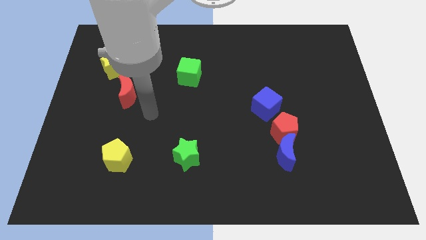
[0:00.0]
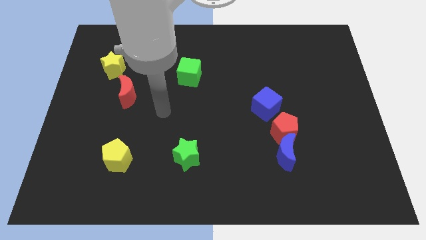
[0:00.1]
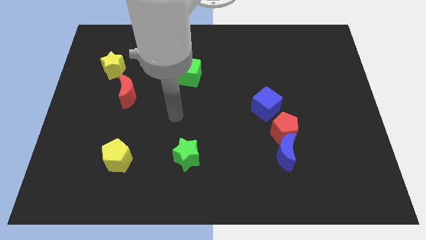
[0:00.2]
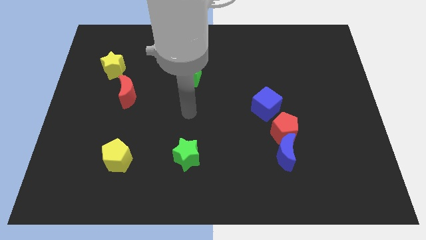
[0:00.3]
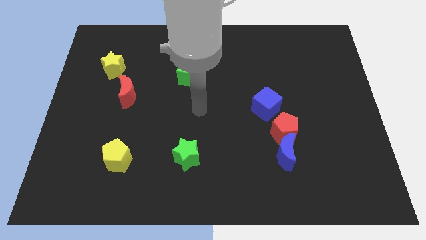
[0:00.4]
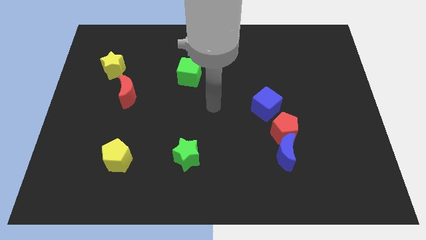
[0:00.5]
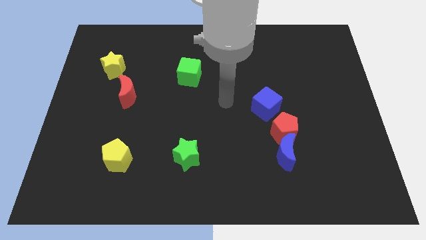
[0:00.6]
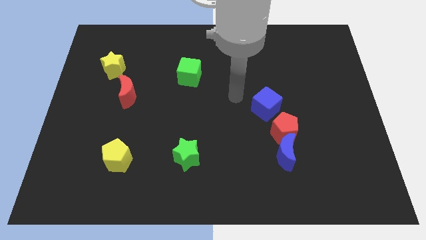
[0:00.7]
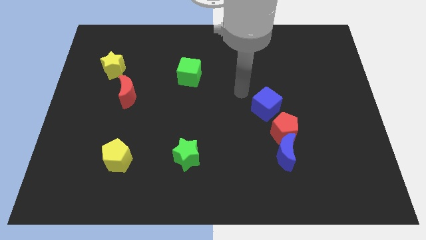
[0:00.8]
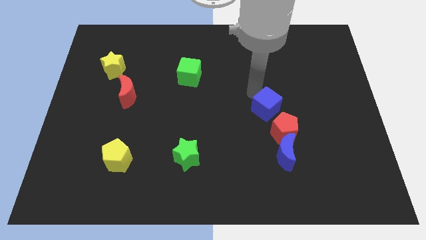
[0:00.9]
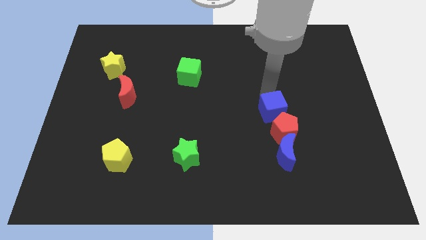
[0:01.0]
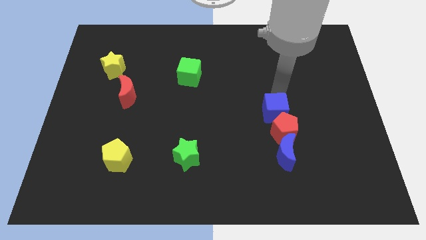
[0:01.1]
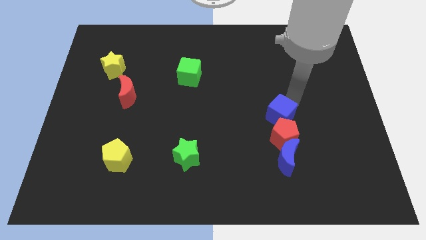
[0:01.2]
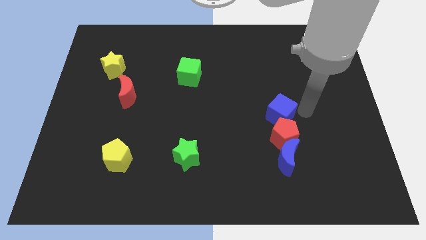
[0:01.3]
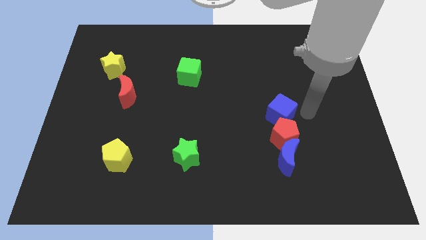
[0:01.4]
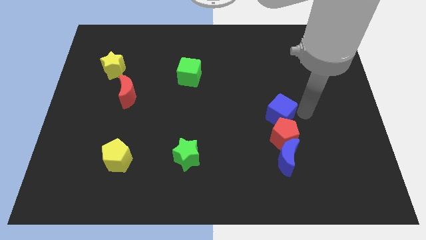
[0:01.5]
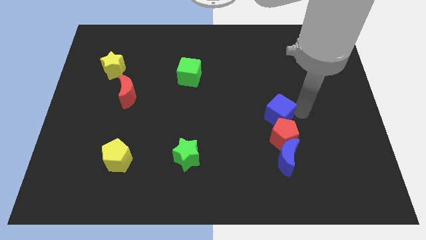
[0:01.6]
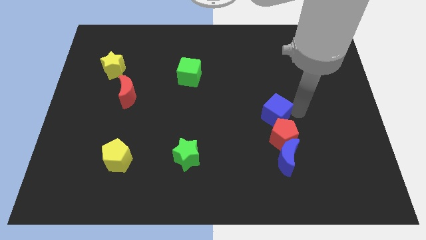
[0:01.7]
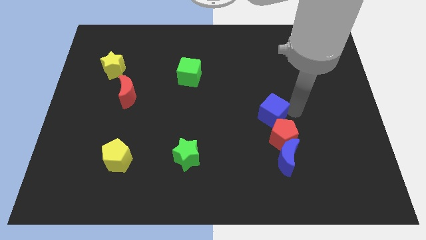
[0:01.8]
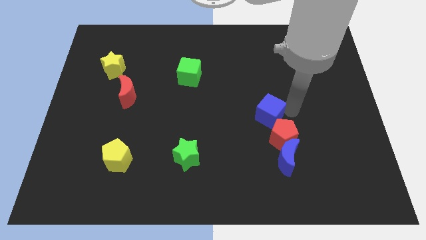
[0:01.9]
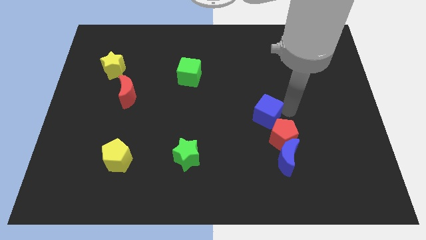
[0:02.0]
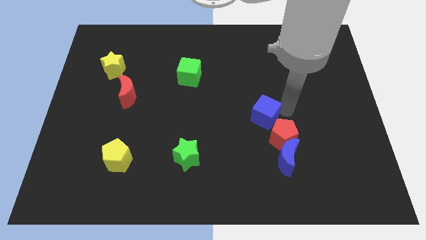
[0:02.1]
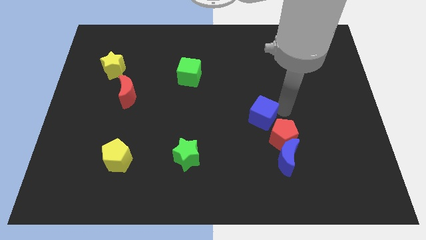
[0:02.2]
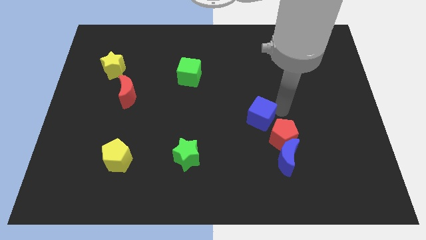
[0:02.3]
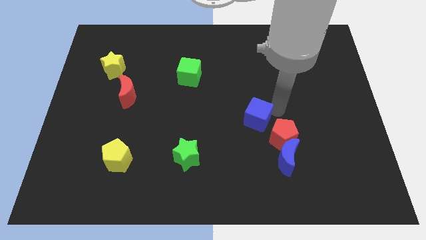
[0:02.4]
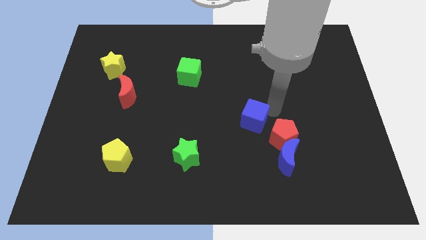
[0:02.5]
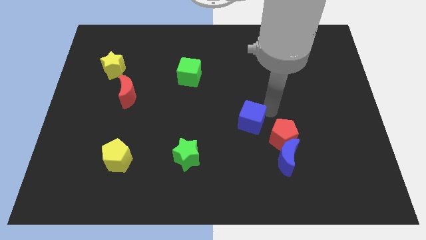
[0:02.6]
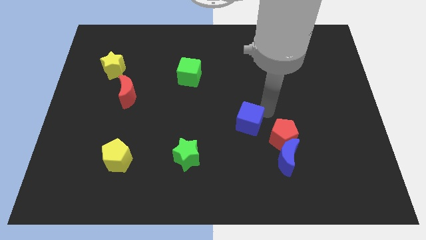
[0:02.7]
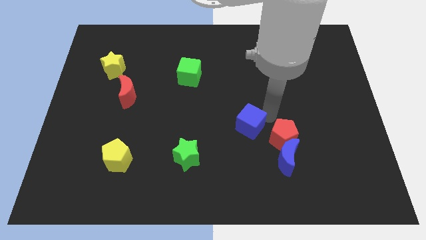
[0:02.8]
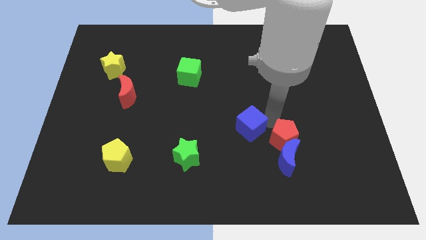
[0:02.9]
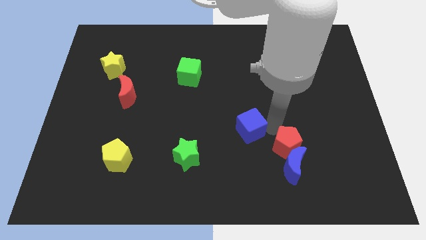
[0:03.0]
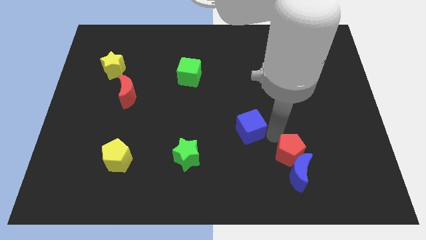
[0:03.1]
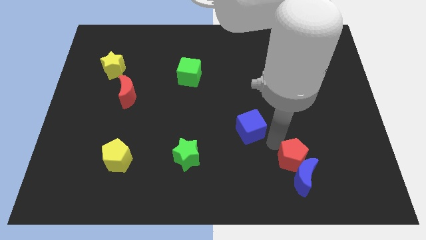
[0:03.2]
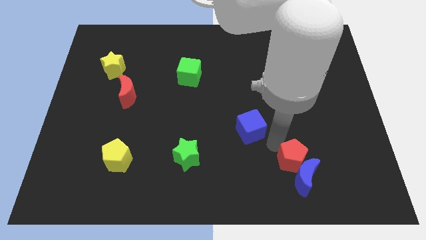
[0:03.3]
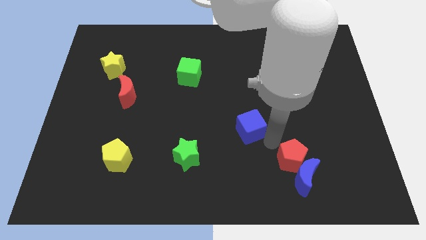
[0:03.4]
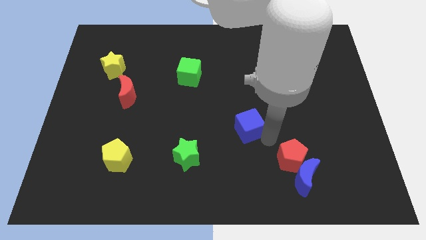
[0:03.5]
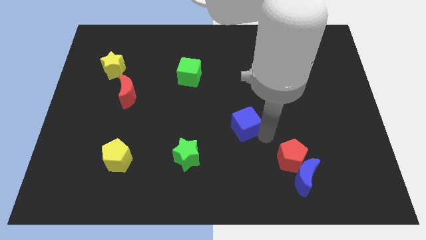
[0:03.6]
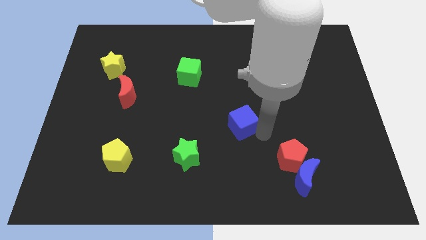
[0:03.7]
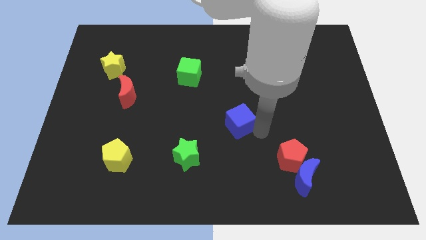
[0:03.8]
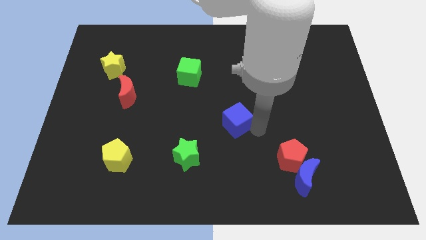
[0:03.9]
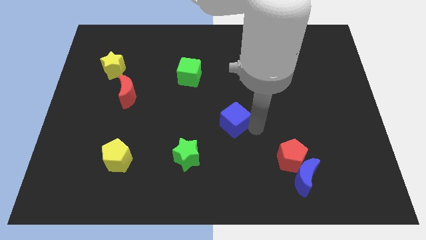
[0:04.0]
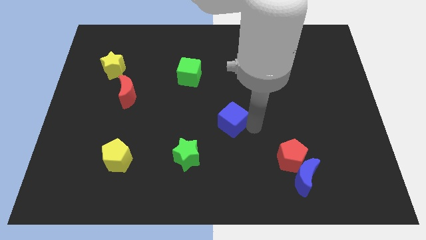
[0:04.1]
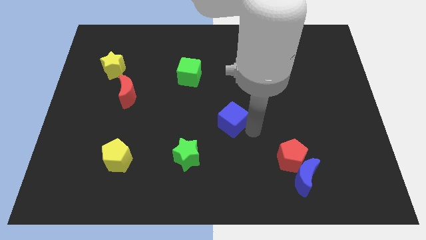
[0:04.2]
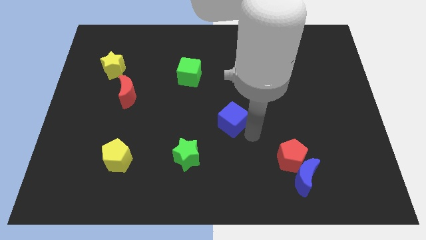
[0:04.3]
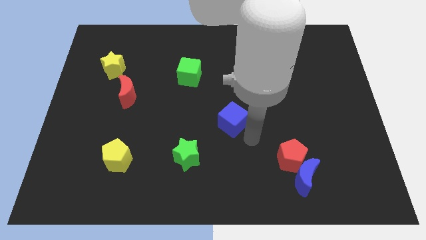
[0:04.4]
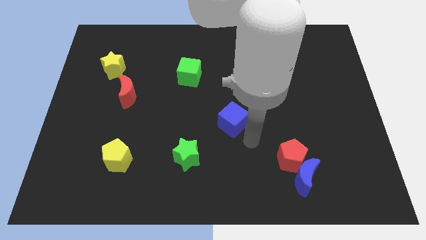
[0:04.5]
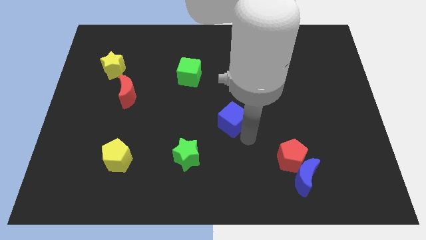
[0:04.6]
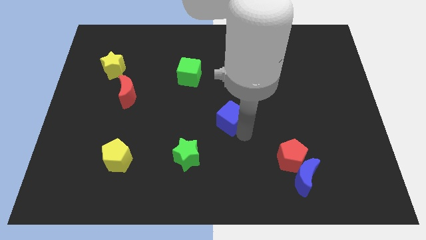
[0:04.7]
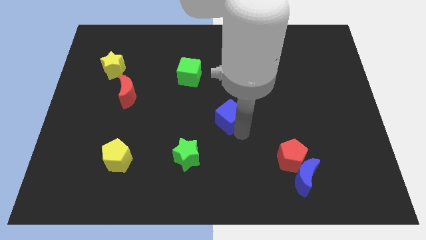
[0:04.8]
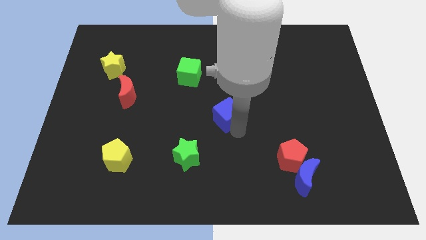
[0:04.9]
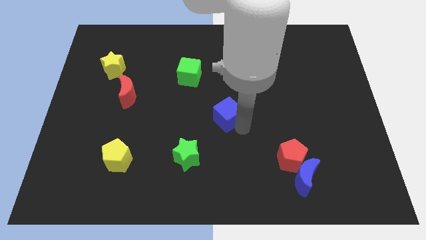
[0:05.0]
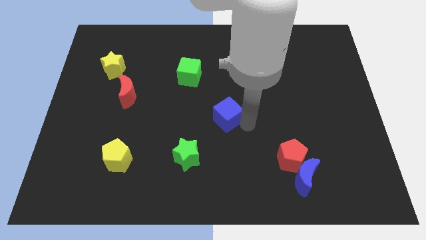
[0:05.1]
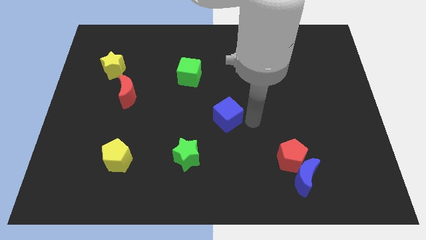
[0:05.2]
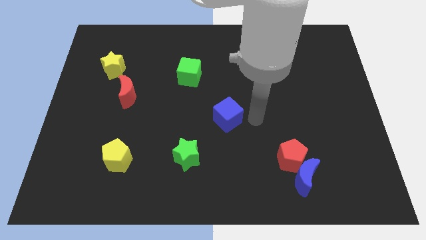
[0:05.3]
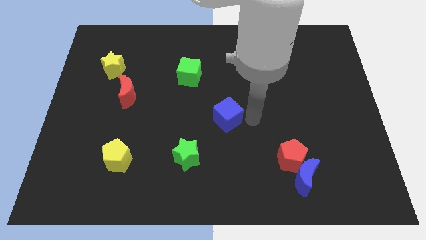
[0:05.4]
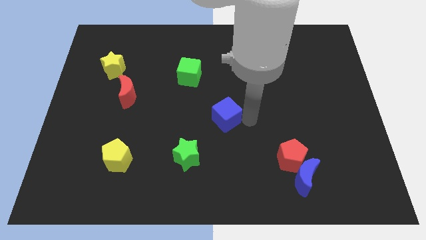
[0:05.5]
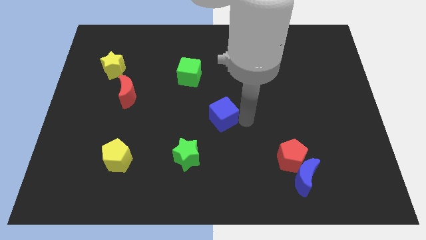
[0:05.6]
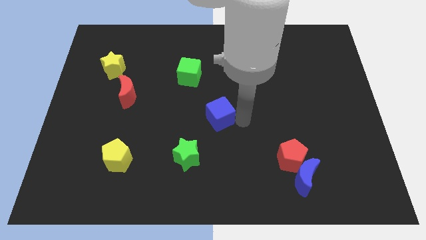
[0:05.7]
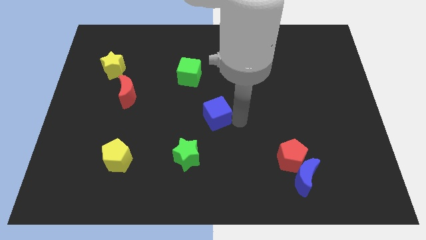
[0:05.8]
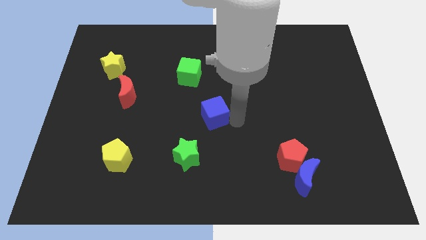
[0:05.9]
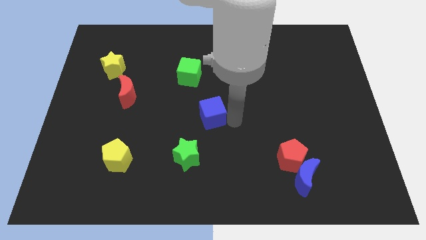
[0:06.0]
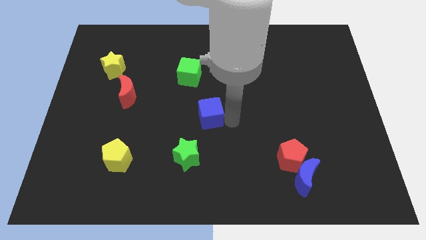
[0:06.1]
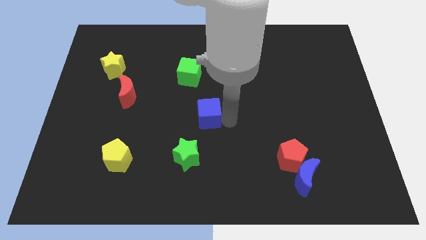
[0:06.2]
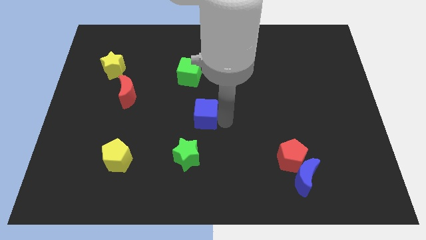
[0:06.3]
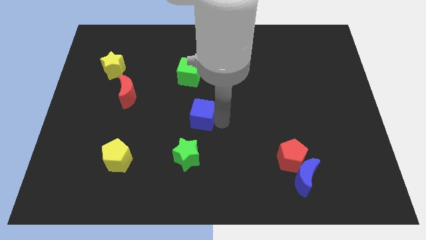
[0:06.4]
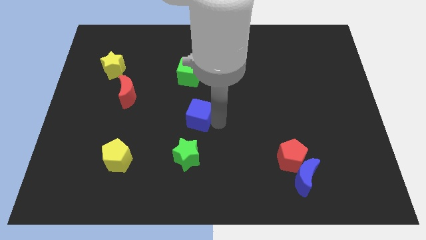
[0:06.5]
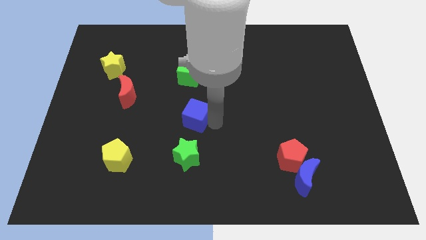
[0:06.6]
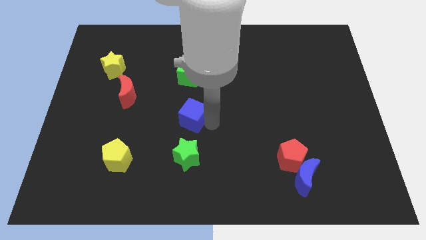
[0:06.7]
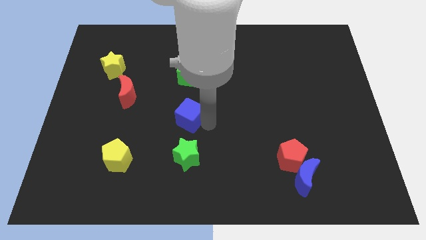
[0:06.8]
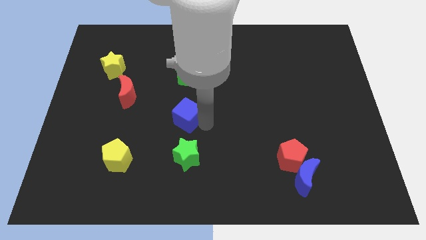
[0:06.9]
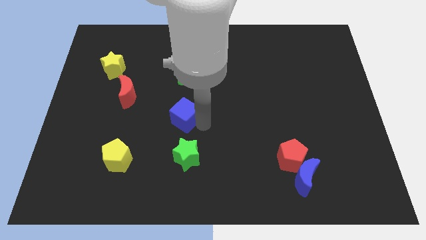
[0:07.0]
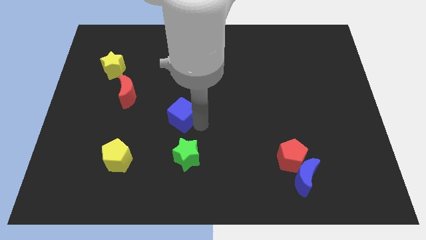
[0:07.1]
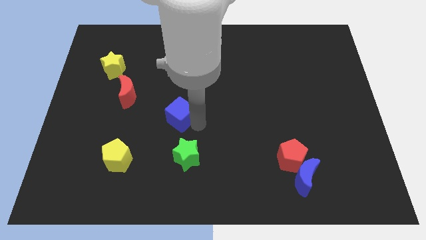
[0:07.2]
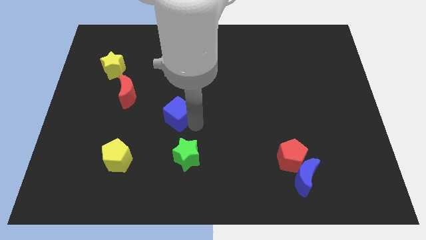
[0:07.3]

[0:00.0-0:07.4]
push the blue cube left

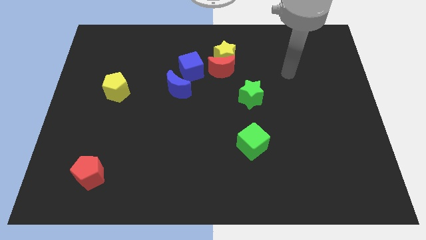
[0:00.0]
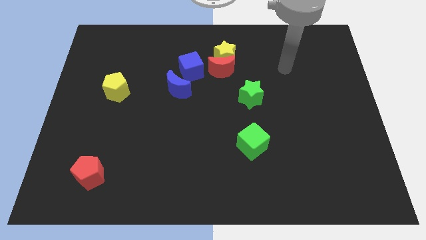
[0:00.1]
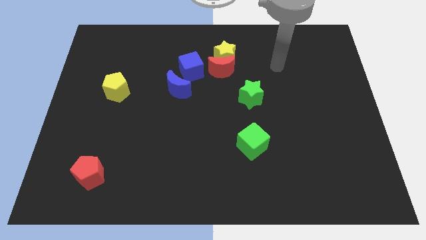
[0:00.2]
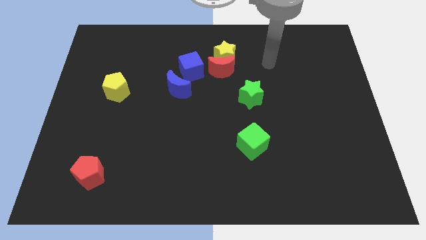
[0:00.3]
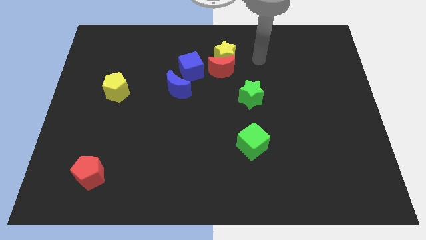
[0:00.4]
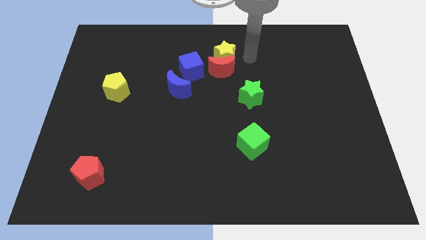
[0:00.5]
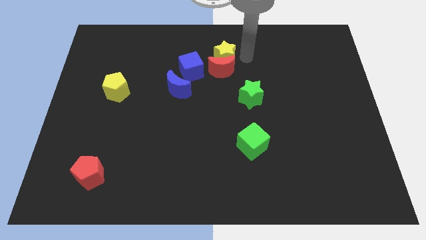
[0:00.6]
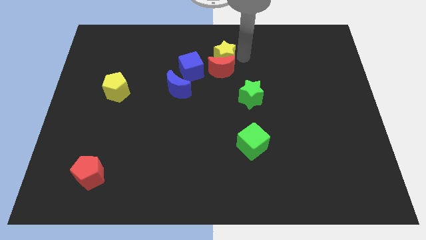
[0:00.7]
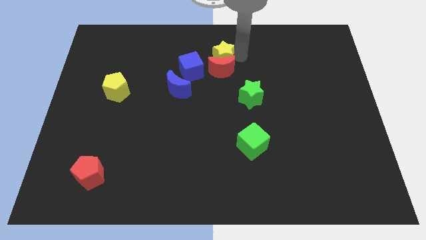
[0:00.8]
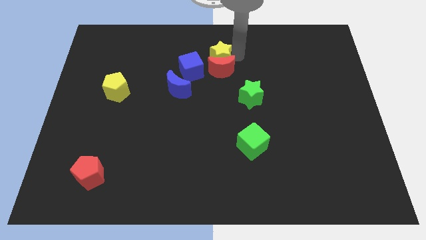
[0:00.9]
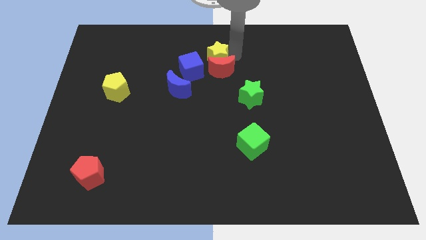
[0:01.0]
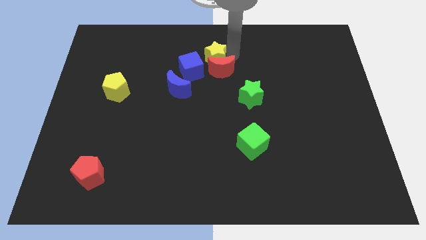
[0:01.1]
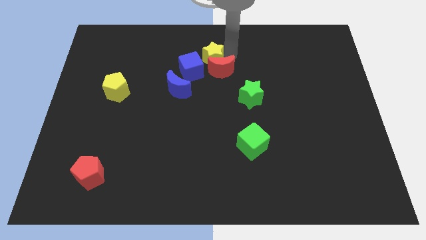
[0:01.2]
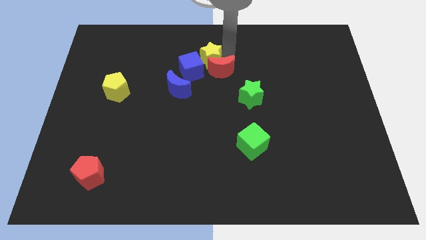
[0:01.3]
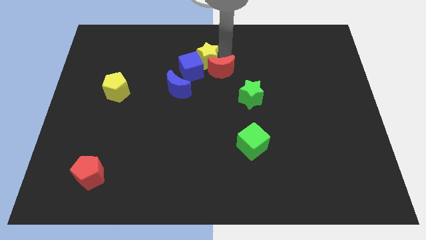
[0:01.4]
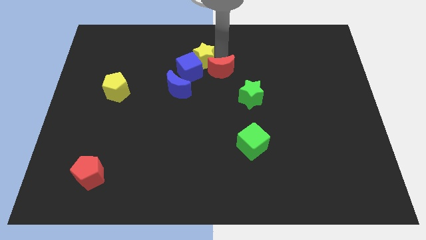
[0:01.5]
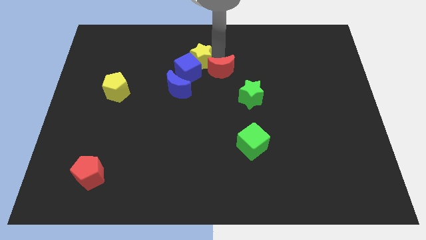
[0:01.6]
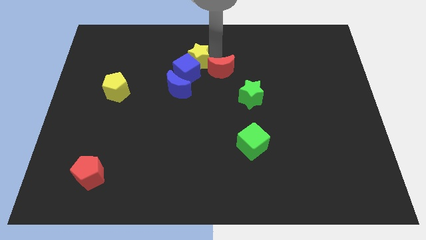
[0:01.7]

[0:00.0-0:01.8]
move the yellow star somewhat to the left
